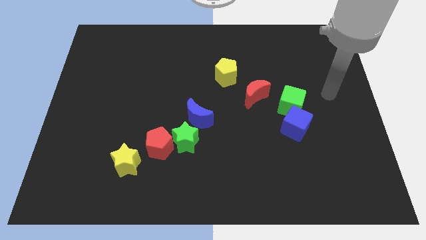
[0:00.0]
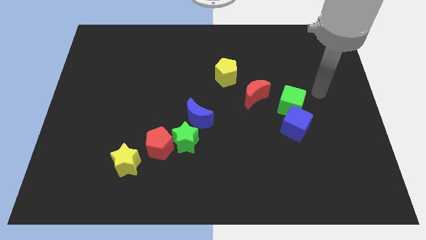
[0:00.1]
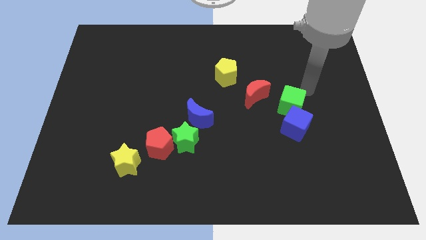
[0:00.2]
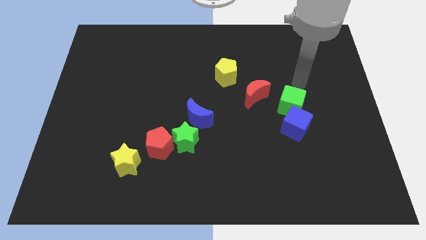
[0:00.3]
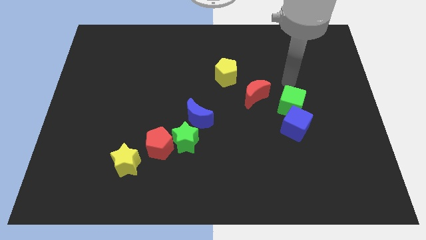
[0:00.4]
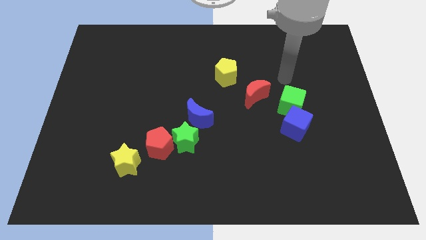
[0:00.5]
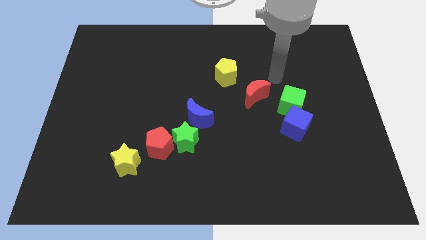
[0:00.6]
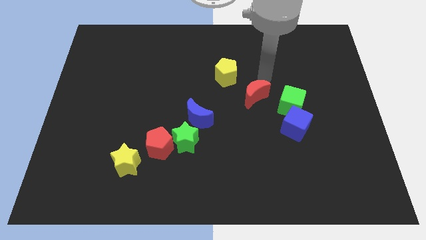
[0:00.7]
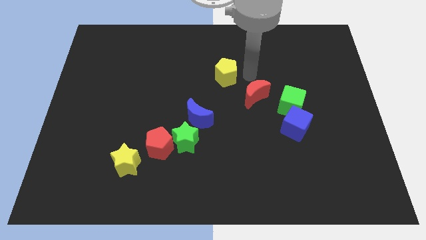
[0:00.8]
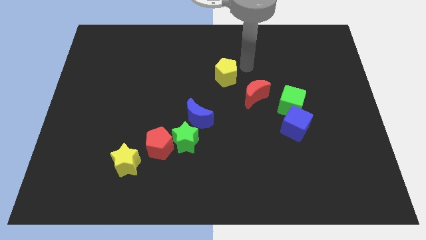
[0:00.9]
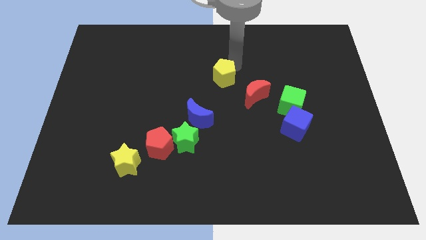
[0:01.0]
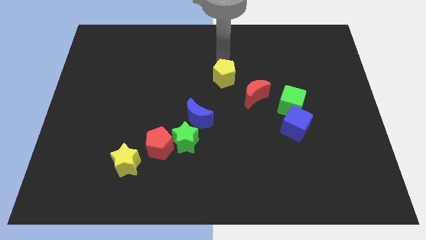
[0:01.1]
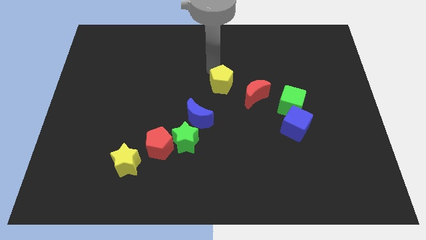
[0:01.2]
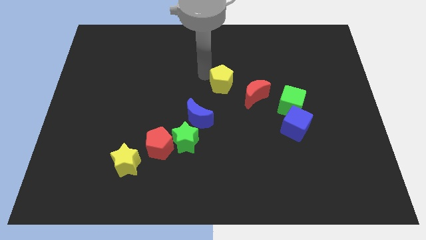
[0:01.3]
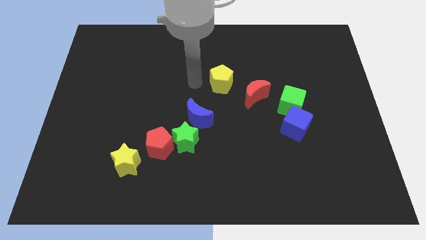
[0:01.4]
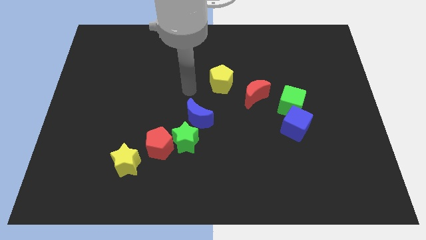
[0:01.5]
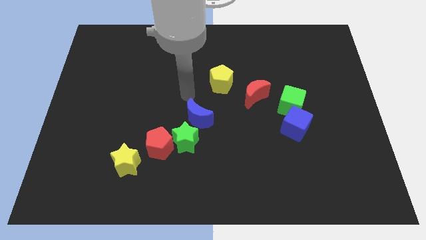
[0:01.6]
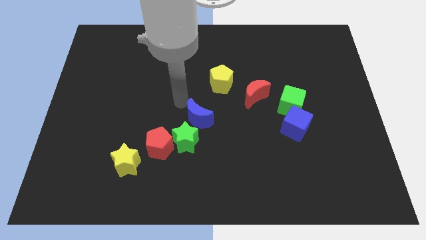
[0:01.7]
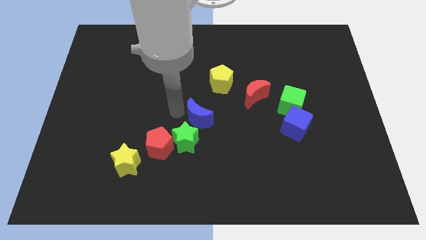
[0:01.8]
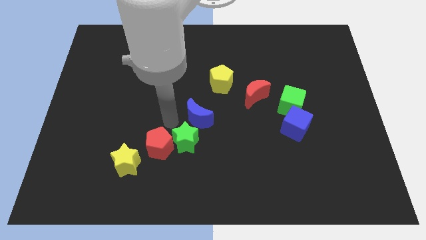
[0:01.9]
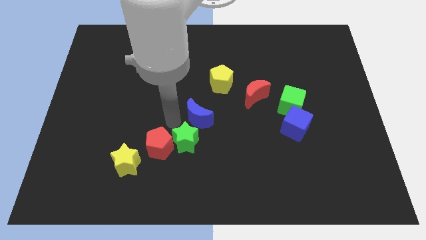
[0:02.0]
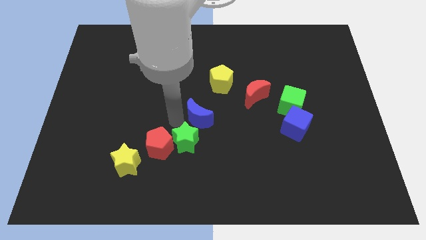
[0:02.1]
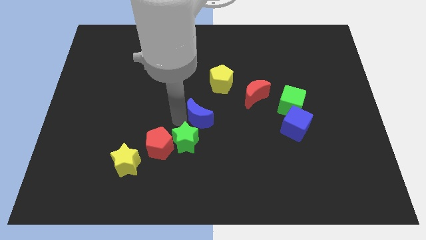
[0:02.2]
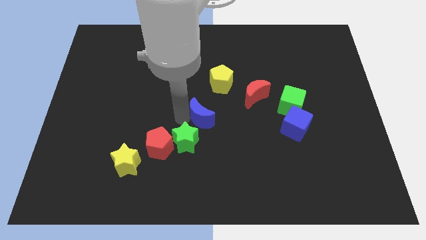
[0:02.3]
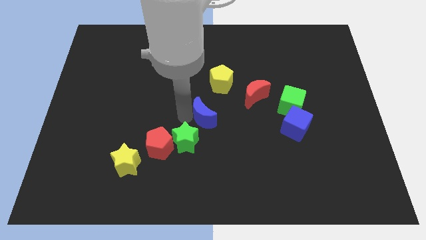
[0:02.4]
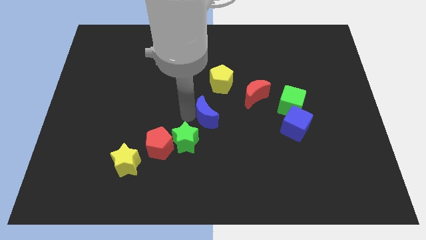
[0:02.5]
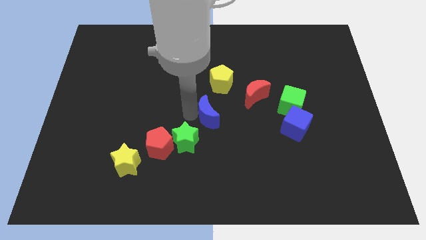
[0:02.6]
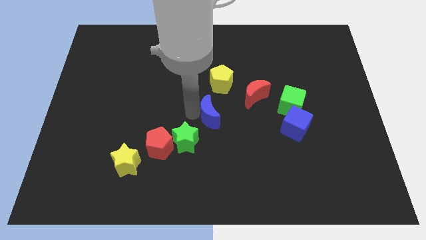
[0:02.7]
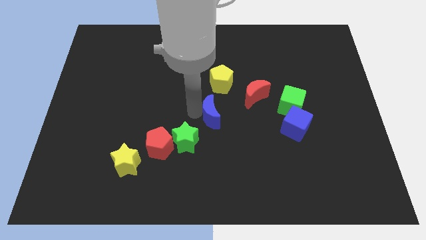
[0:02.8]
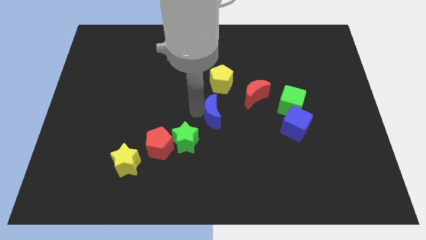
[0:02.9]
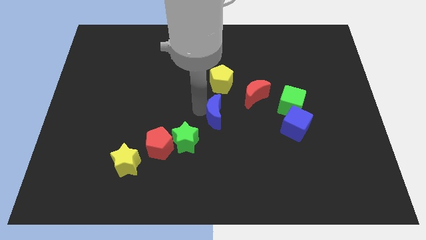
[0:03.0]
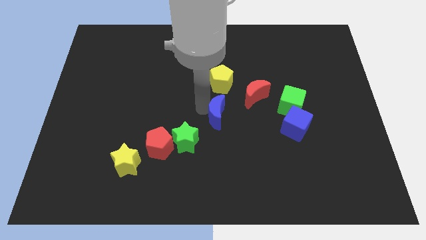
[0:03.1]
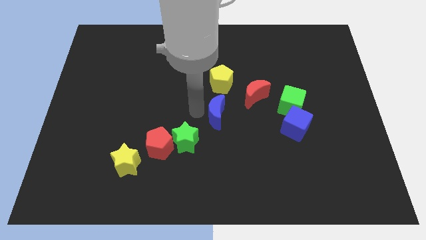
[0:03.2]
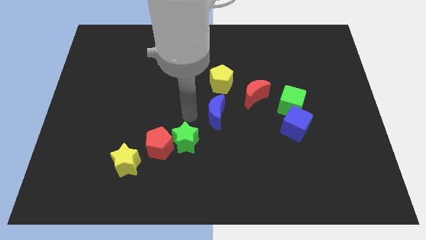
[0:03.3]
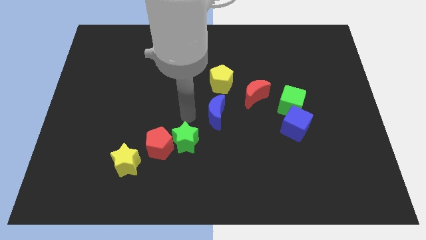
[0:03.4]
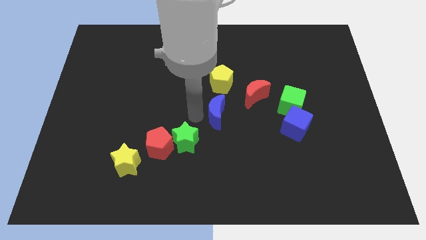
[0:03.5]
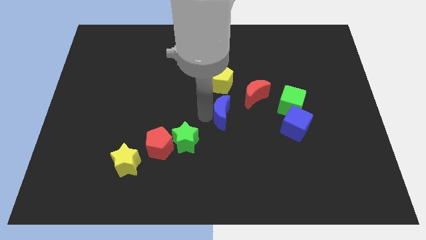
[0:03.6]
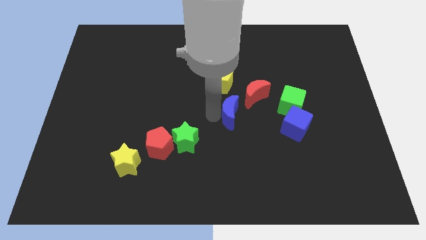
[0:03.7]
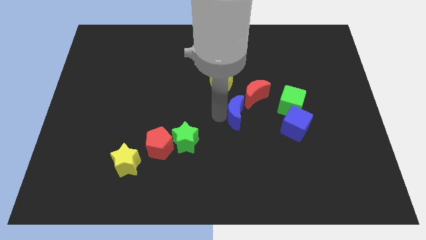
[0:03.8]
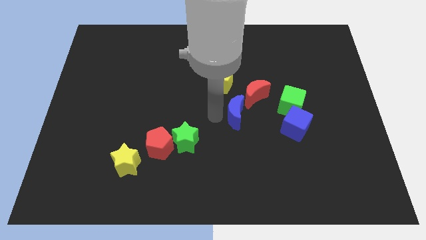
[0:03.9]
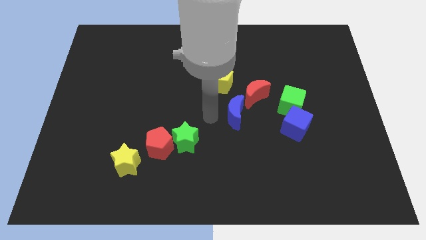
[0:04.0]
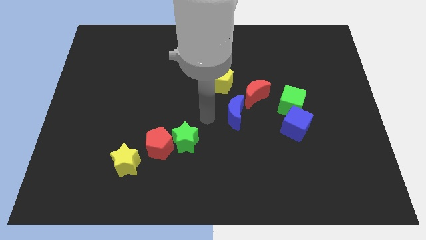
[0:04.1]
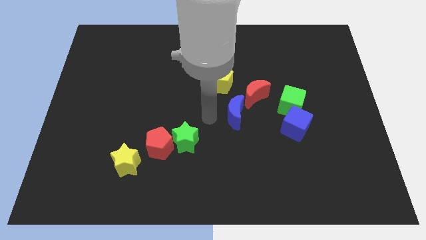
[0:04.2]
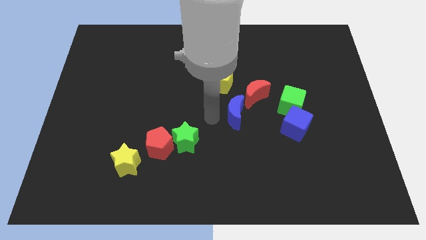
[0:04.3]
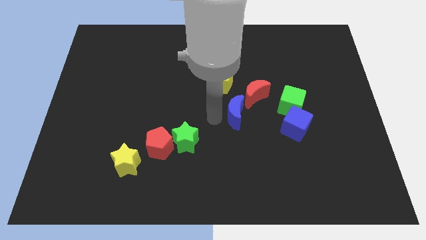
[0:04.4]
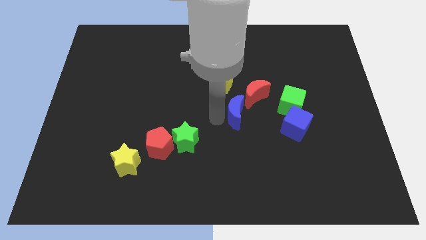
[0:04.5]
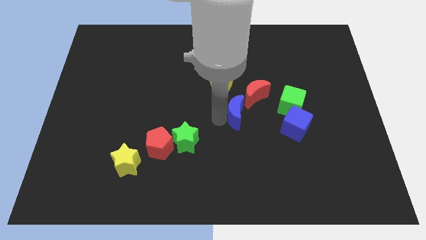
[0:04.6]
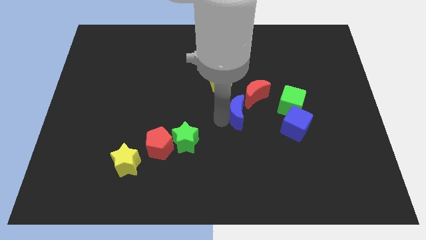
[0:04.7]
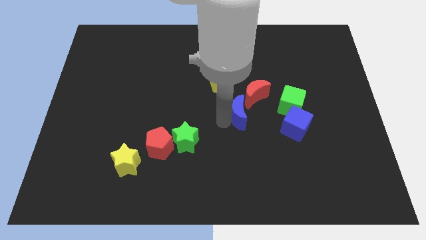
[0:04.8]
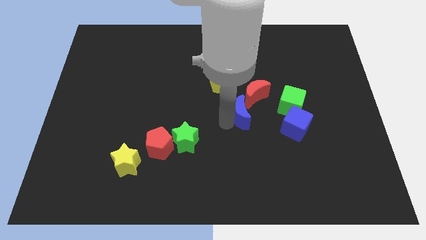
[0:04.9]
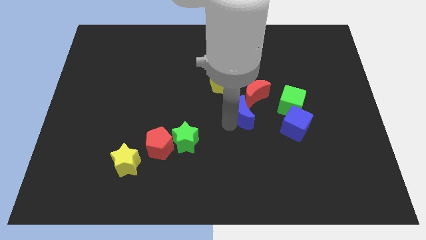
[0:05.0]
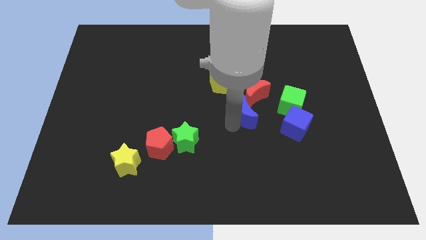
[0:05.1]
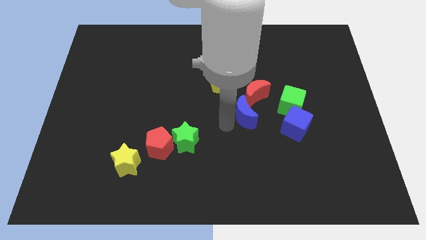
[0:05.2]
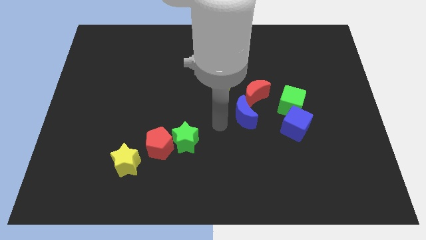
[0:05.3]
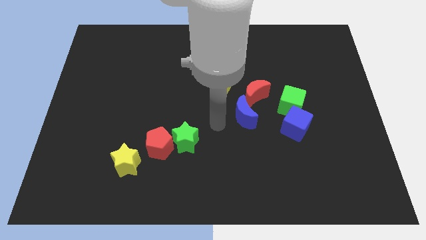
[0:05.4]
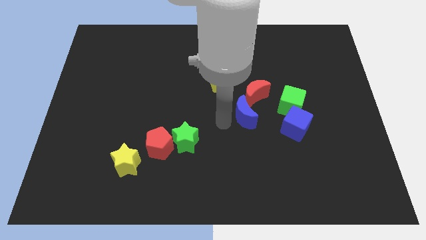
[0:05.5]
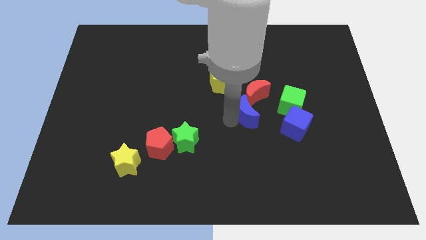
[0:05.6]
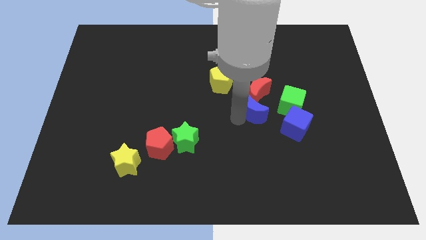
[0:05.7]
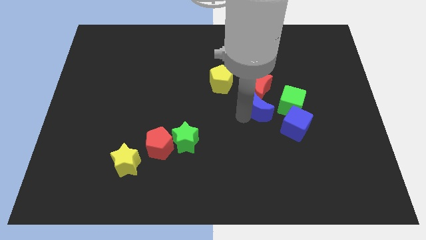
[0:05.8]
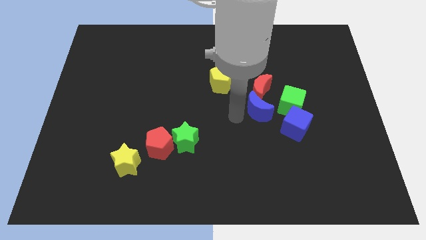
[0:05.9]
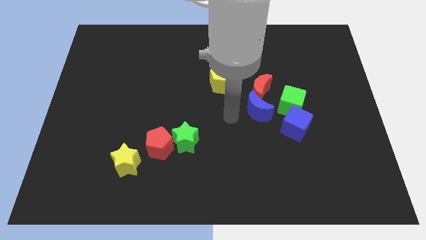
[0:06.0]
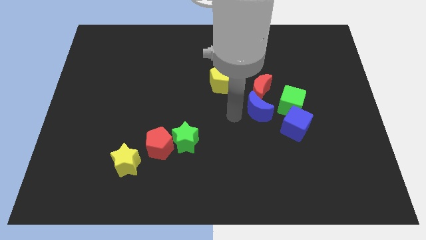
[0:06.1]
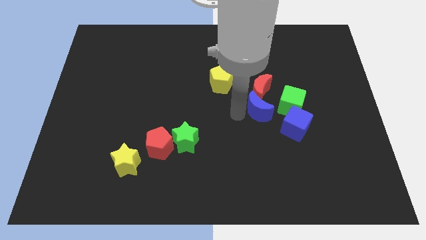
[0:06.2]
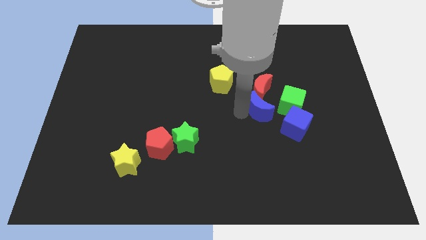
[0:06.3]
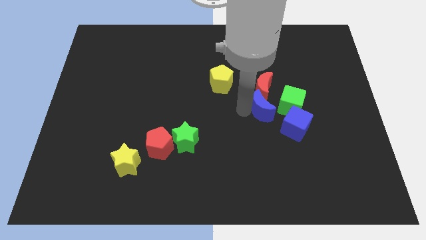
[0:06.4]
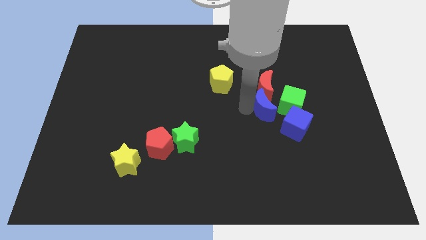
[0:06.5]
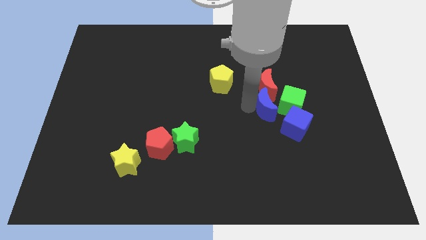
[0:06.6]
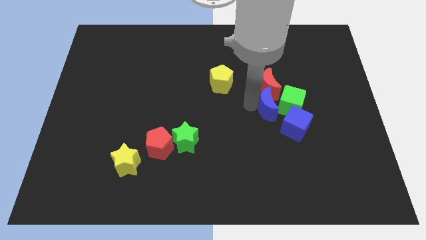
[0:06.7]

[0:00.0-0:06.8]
move the blue moon close to the green cube

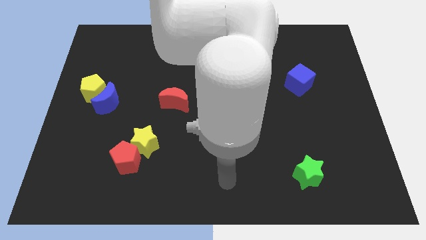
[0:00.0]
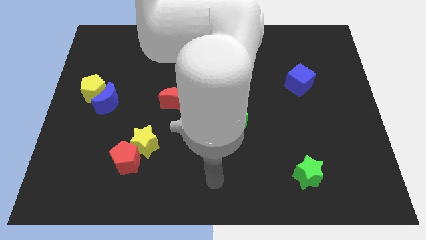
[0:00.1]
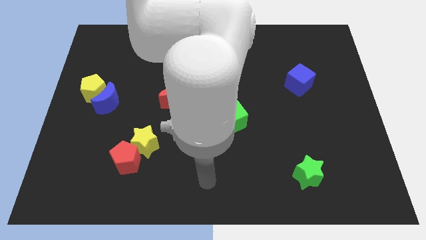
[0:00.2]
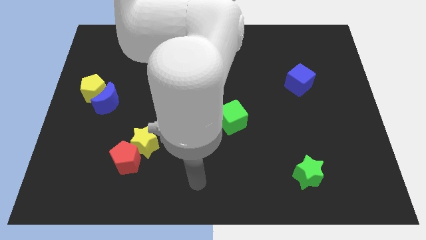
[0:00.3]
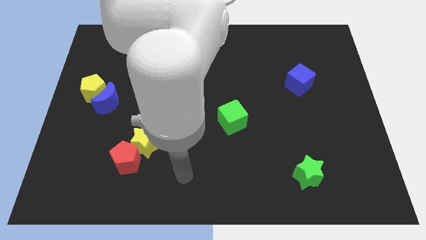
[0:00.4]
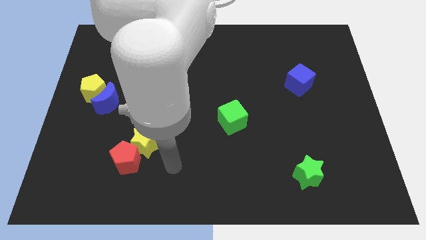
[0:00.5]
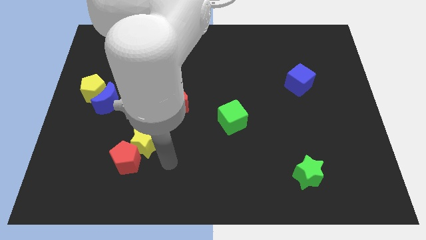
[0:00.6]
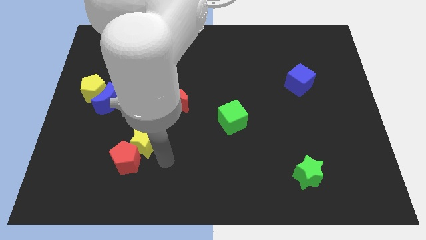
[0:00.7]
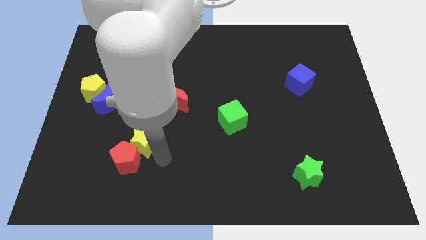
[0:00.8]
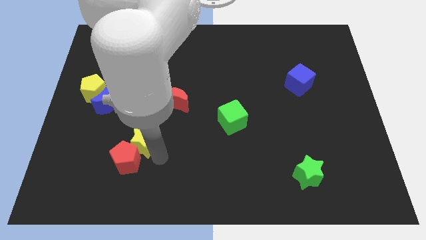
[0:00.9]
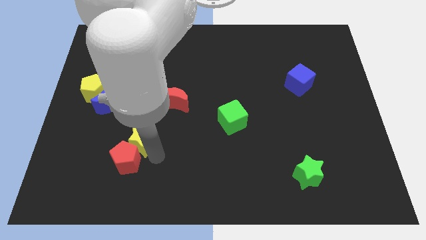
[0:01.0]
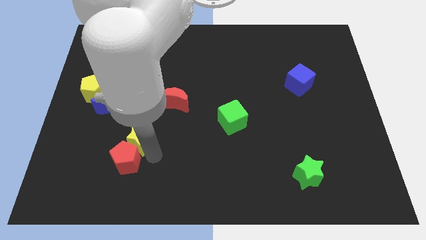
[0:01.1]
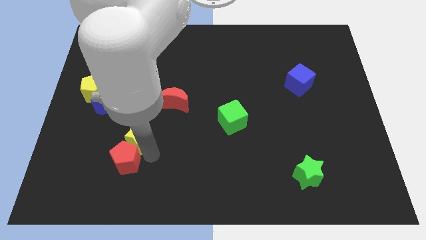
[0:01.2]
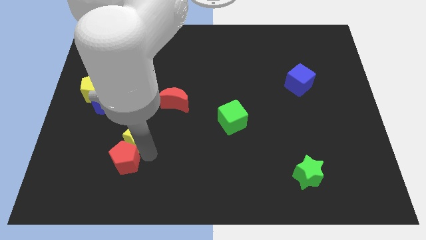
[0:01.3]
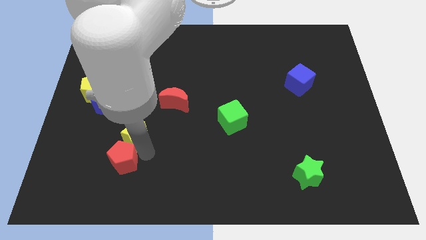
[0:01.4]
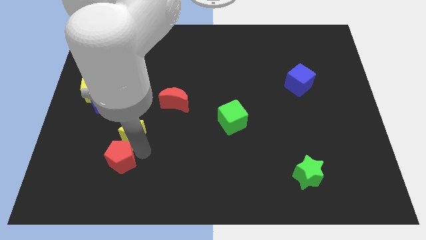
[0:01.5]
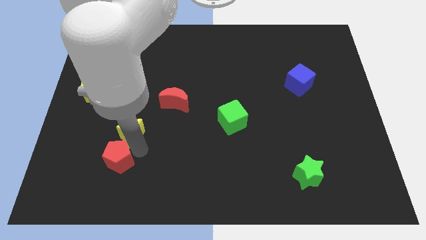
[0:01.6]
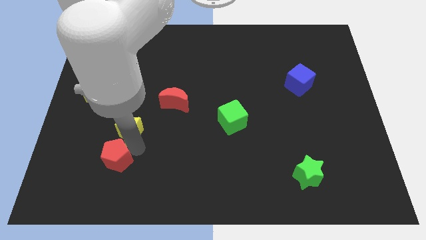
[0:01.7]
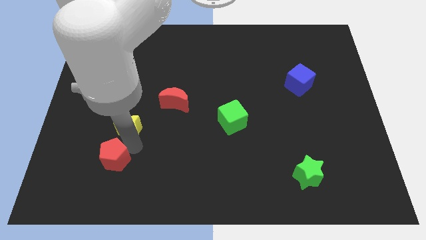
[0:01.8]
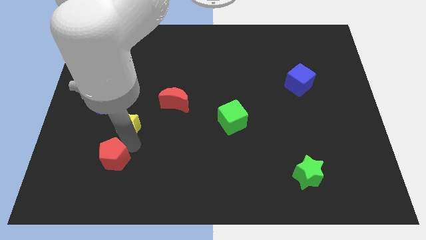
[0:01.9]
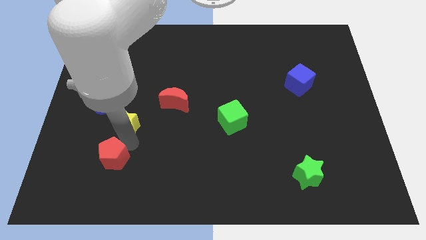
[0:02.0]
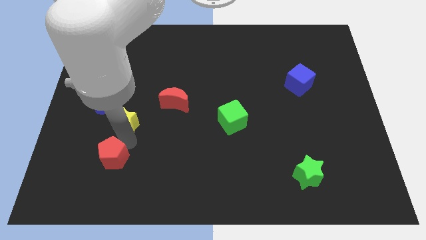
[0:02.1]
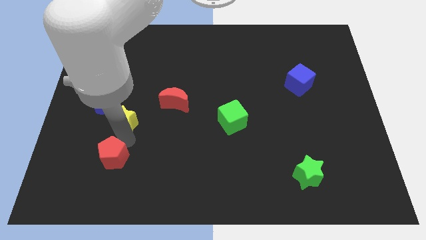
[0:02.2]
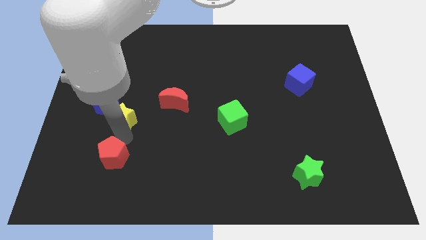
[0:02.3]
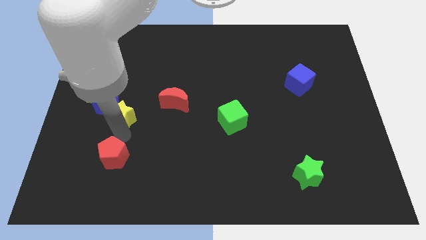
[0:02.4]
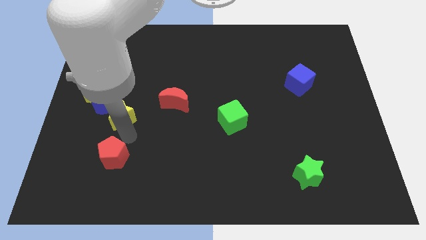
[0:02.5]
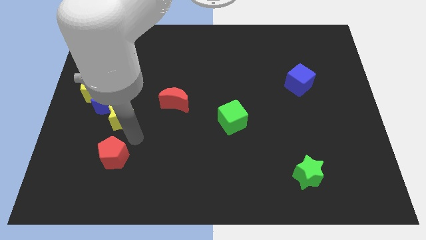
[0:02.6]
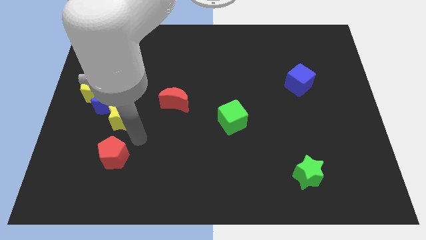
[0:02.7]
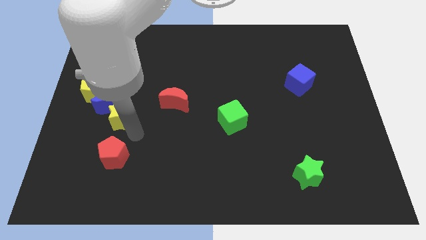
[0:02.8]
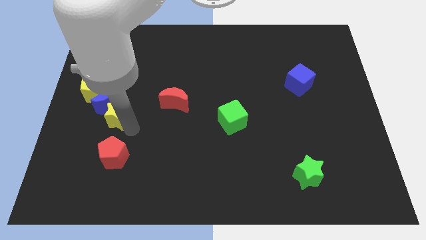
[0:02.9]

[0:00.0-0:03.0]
slide the yellow star next to the blue moon
